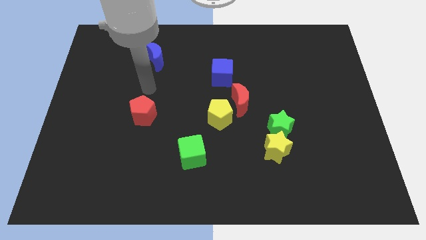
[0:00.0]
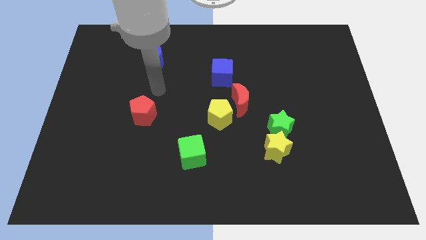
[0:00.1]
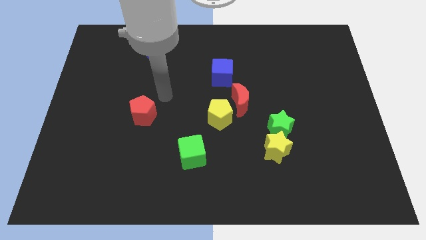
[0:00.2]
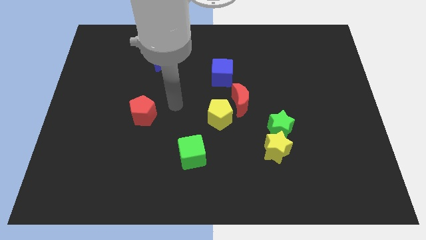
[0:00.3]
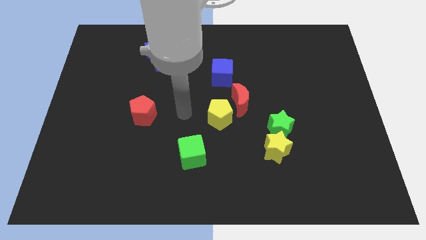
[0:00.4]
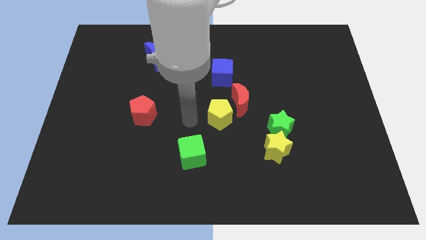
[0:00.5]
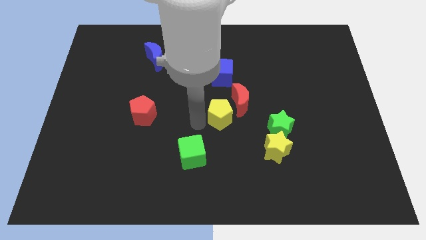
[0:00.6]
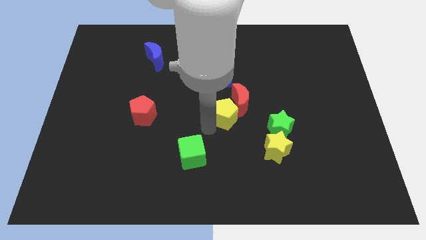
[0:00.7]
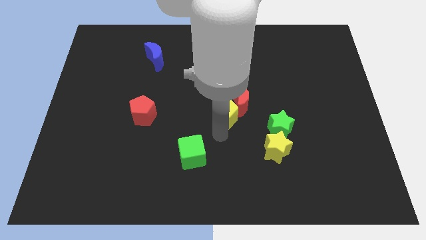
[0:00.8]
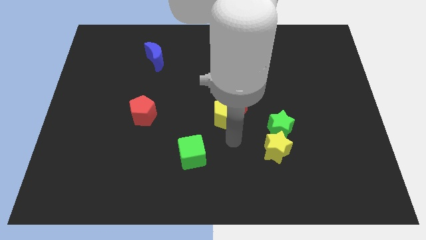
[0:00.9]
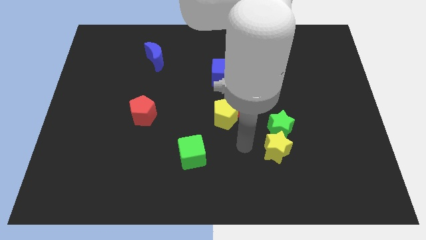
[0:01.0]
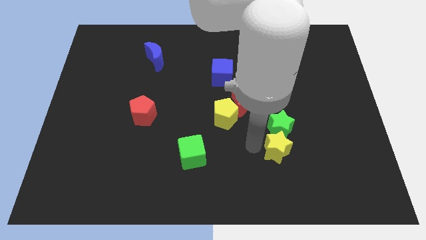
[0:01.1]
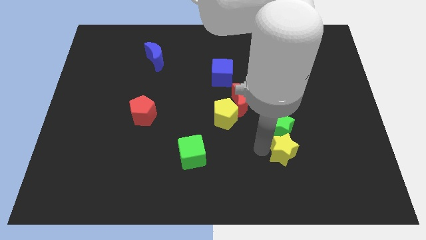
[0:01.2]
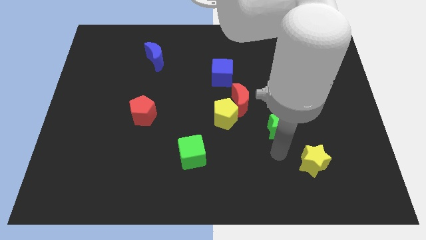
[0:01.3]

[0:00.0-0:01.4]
separate the green star from the yellow star

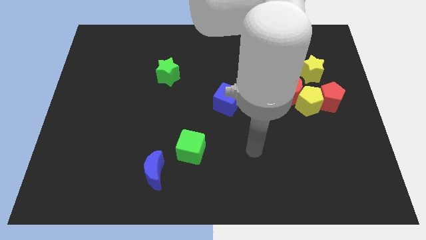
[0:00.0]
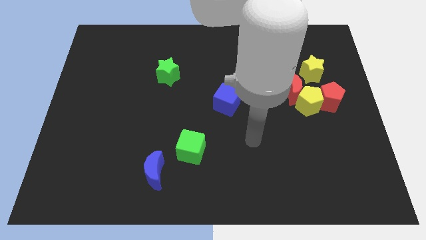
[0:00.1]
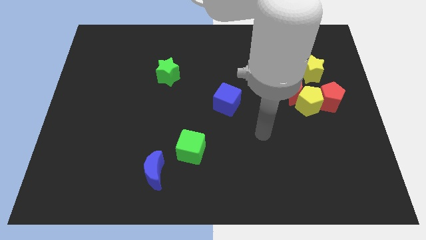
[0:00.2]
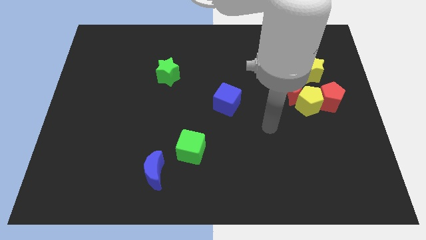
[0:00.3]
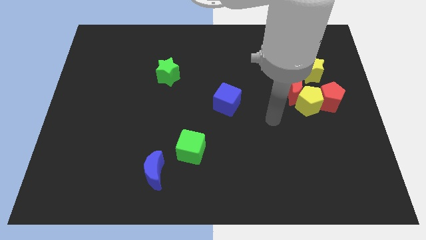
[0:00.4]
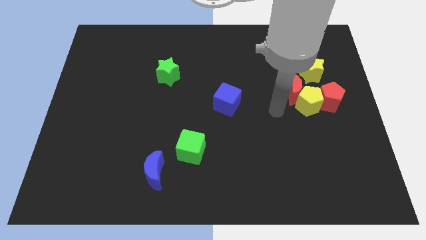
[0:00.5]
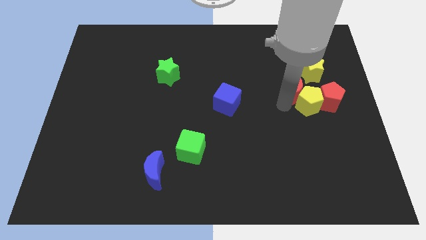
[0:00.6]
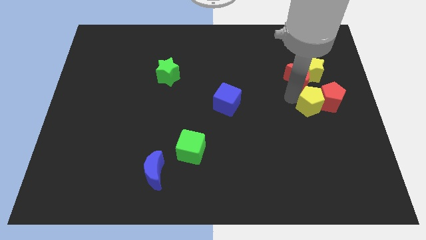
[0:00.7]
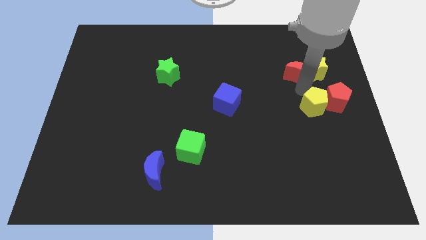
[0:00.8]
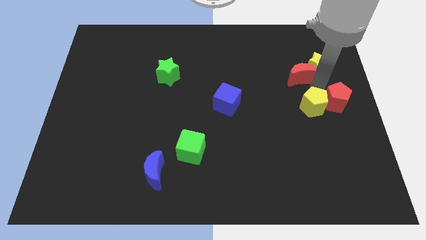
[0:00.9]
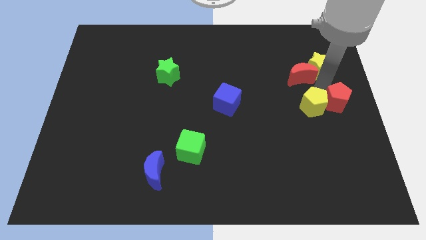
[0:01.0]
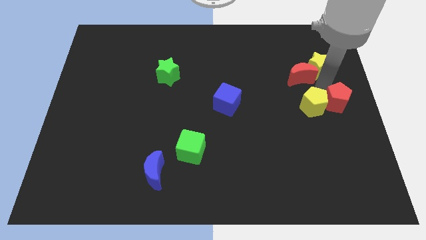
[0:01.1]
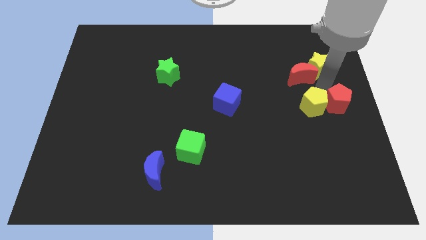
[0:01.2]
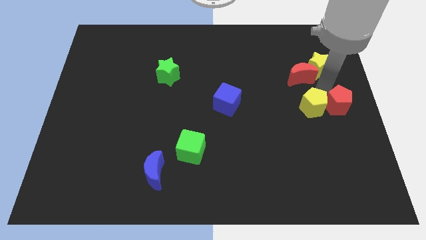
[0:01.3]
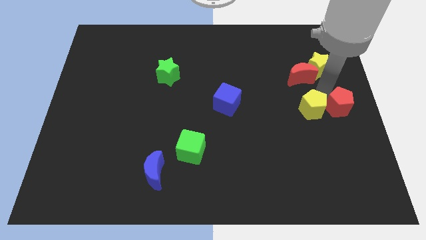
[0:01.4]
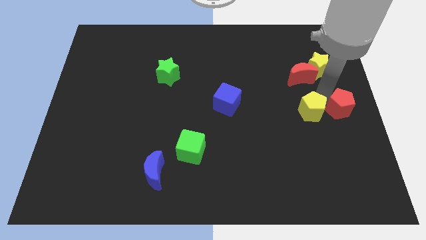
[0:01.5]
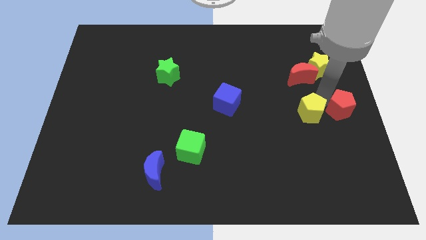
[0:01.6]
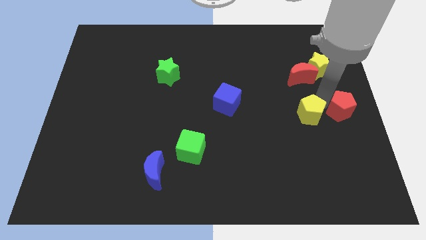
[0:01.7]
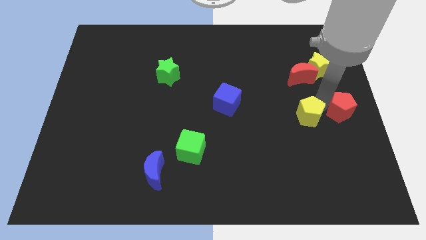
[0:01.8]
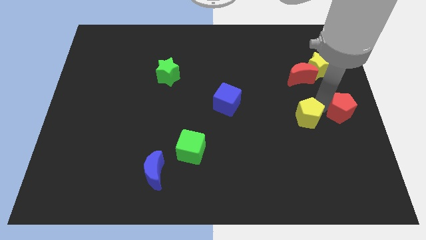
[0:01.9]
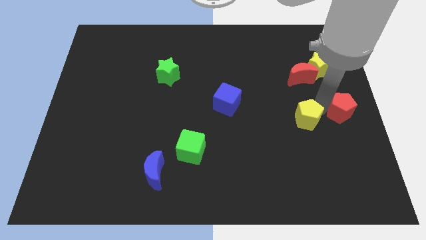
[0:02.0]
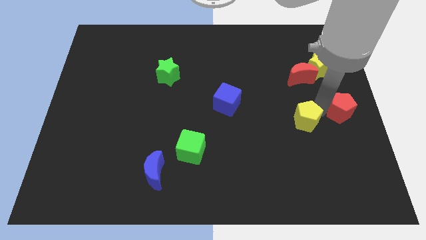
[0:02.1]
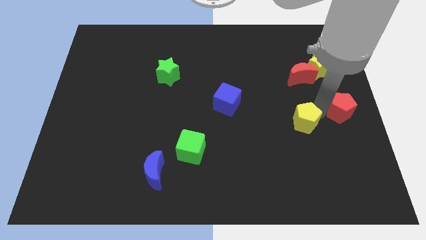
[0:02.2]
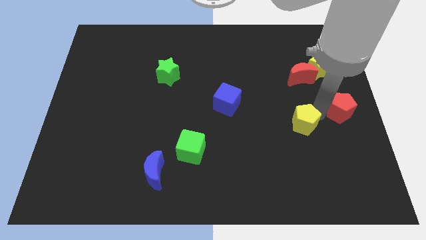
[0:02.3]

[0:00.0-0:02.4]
move the yellow pentagon away from the red pentagon and red moon

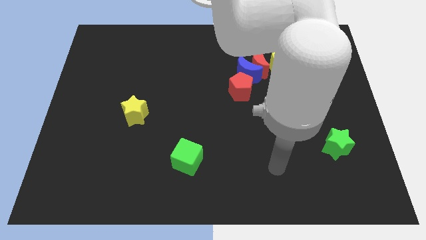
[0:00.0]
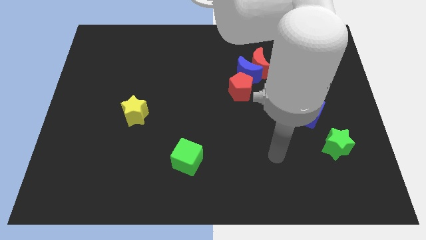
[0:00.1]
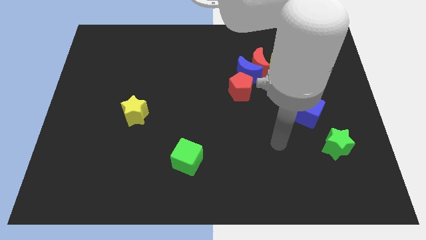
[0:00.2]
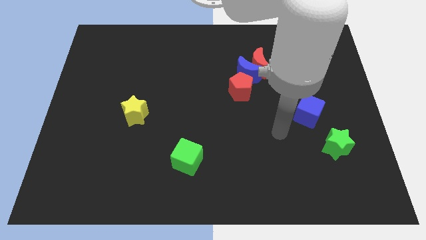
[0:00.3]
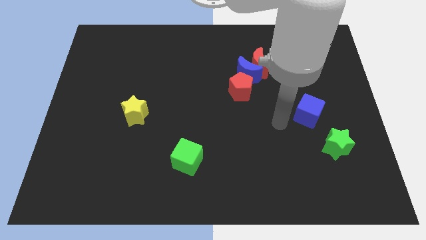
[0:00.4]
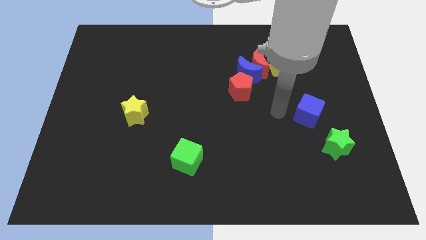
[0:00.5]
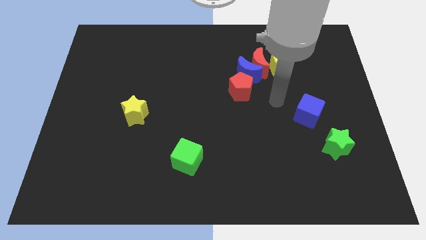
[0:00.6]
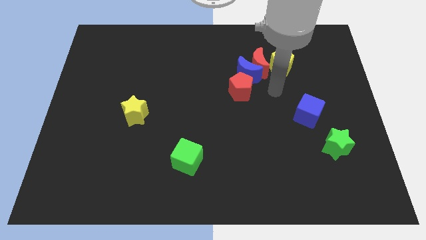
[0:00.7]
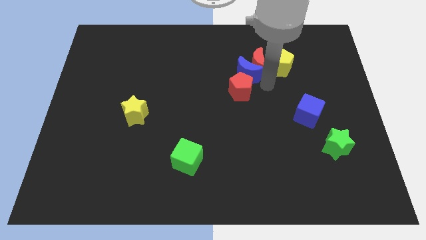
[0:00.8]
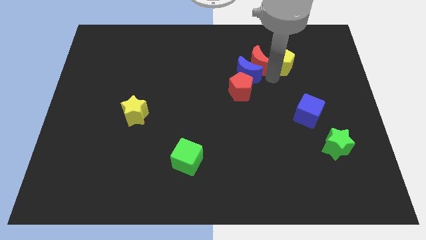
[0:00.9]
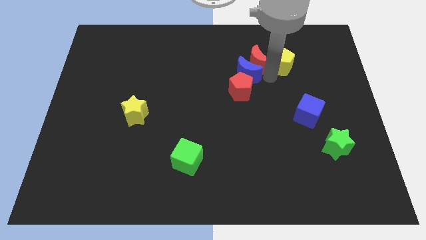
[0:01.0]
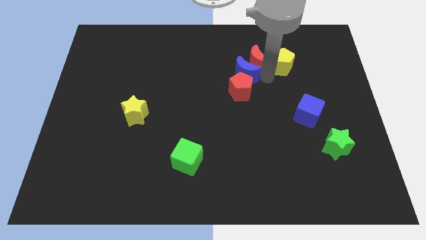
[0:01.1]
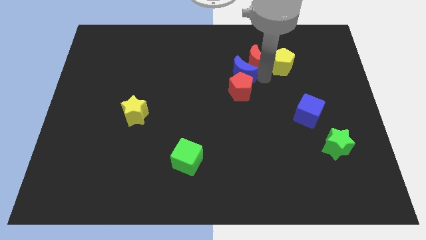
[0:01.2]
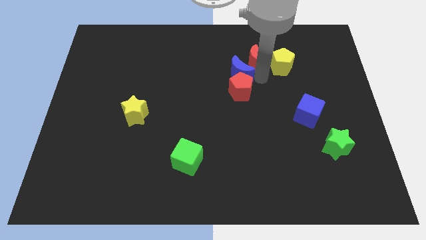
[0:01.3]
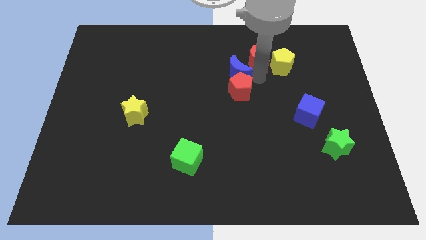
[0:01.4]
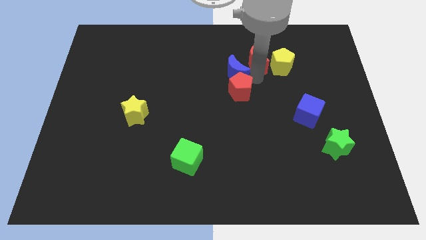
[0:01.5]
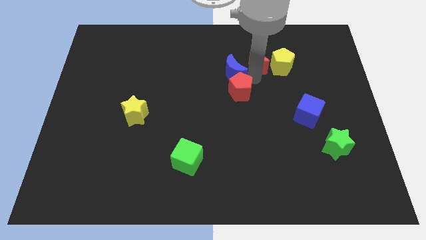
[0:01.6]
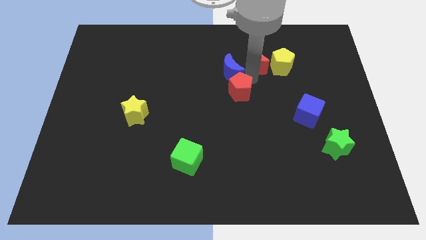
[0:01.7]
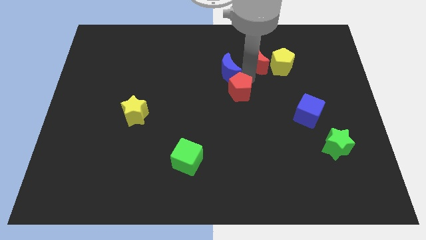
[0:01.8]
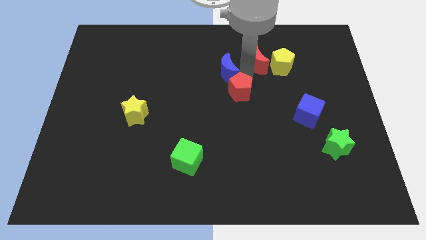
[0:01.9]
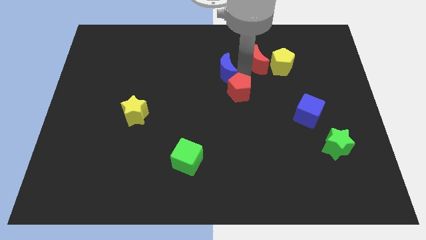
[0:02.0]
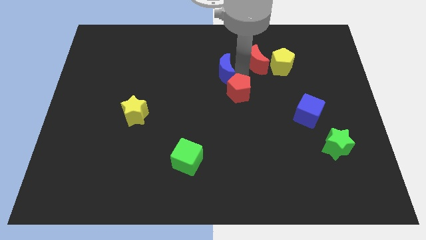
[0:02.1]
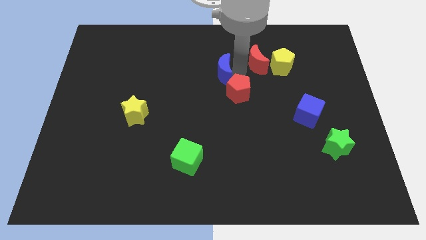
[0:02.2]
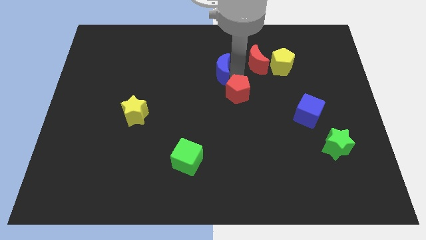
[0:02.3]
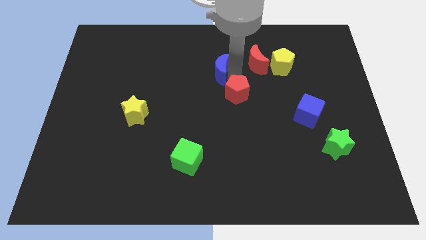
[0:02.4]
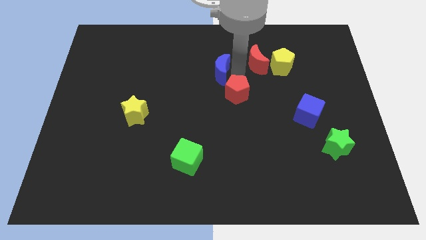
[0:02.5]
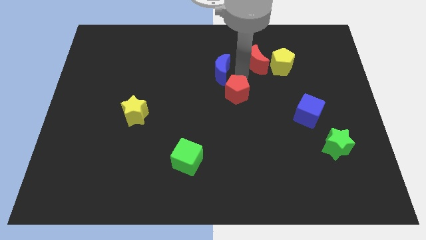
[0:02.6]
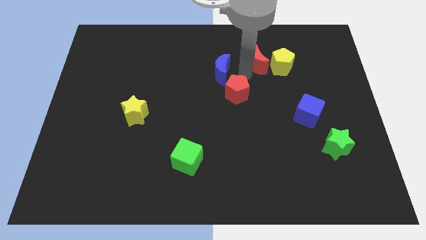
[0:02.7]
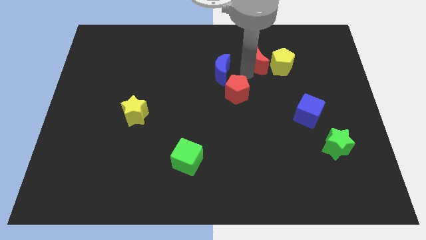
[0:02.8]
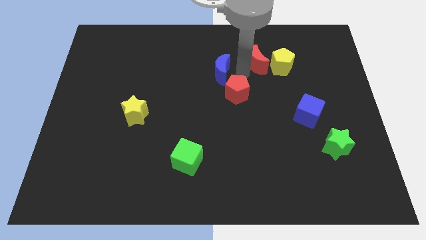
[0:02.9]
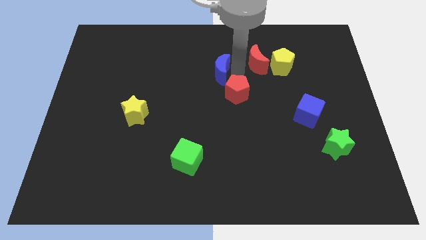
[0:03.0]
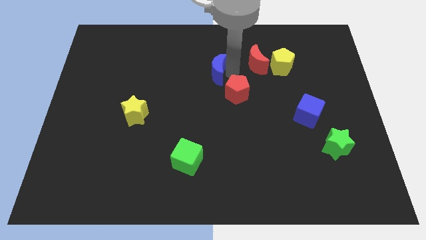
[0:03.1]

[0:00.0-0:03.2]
separate the blue moon from the red moon, red pentagon, and yellow pentagon

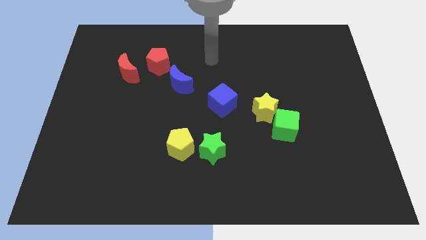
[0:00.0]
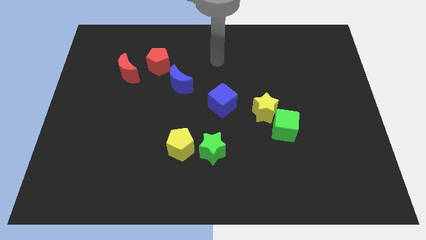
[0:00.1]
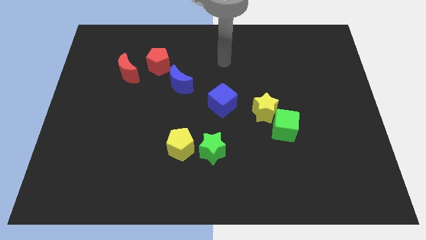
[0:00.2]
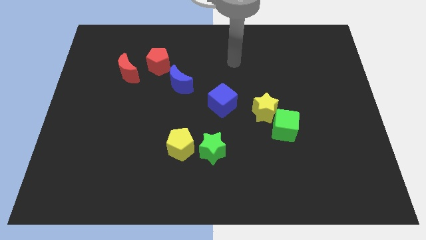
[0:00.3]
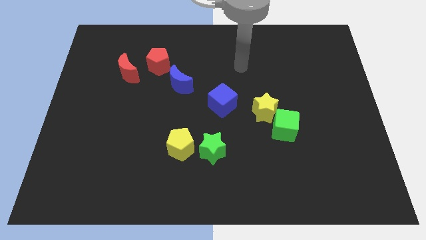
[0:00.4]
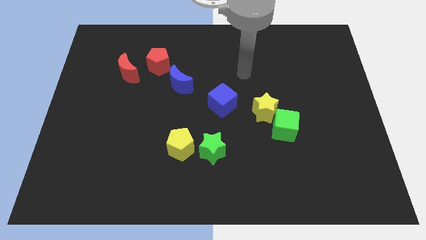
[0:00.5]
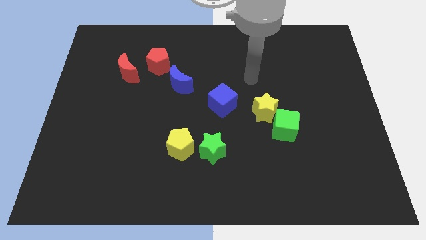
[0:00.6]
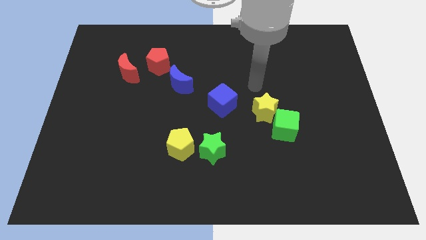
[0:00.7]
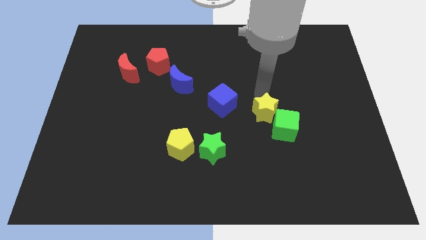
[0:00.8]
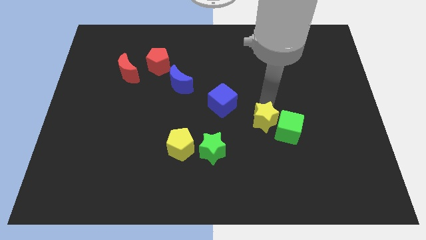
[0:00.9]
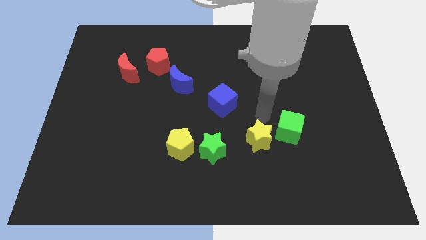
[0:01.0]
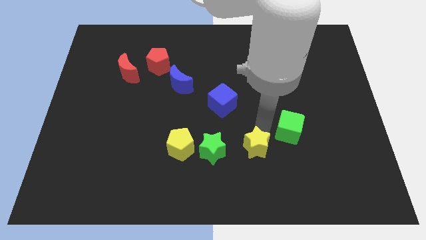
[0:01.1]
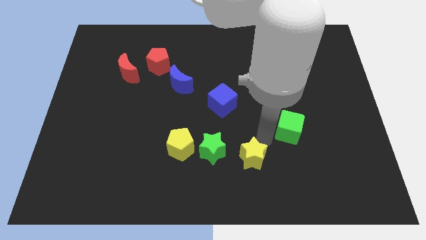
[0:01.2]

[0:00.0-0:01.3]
separate the green cube from the yellow star

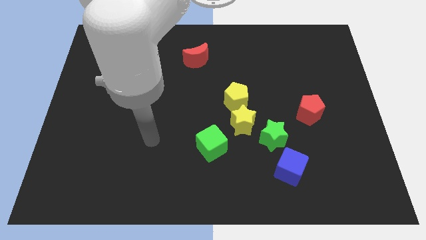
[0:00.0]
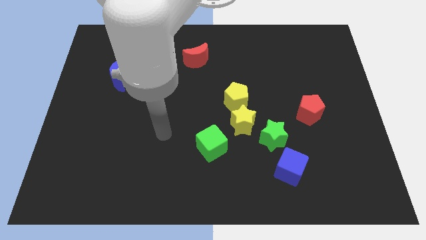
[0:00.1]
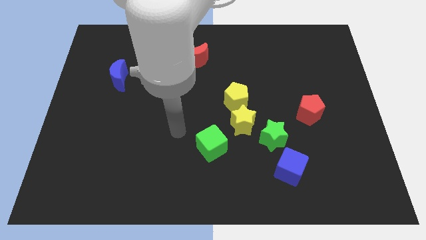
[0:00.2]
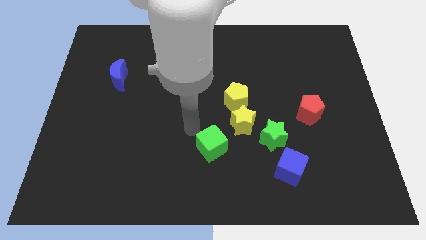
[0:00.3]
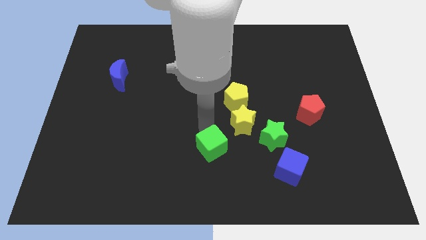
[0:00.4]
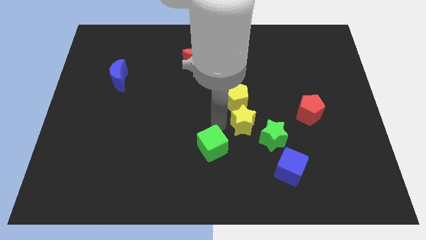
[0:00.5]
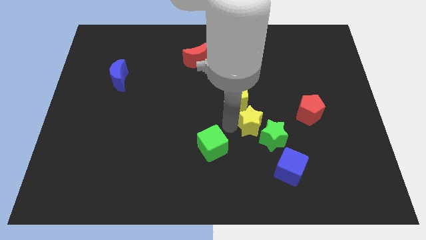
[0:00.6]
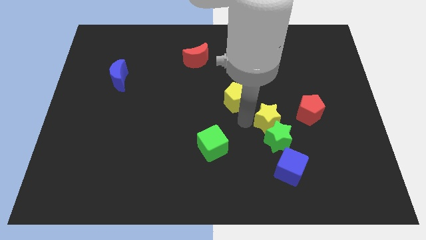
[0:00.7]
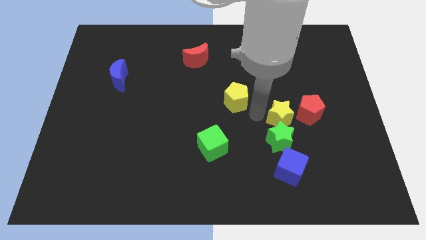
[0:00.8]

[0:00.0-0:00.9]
separate the yellow pentagon from the yellow star

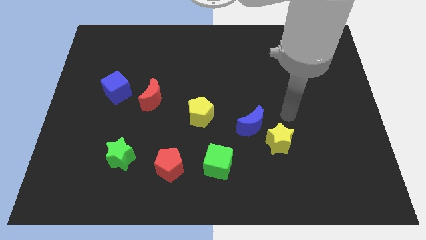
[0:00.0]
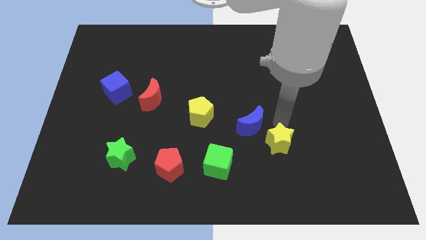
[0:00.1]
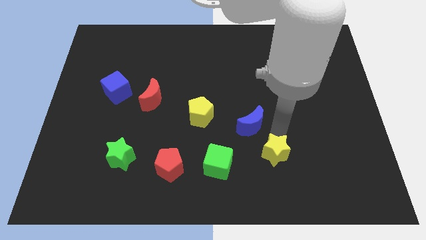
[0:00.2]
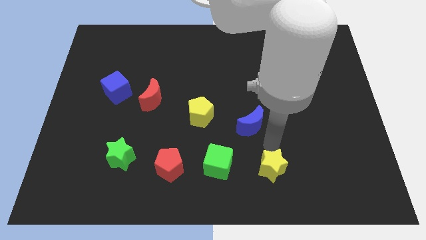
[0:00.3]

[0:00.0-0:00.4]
separate the blue moon from the yellow star
